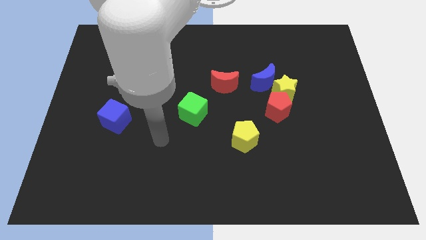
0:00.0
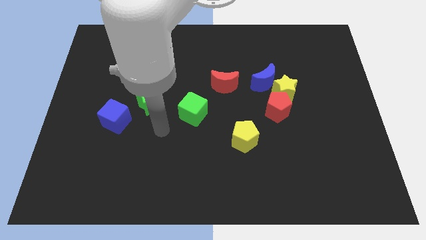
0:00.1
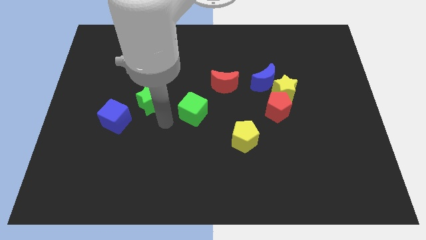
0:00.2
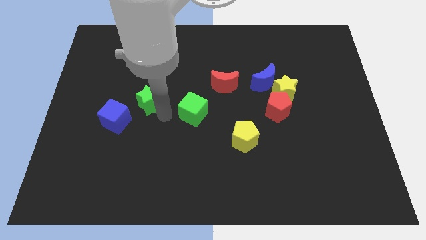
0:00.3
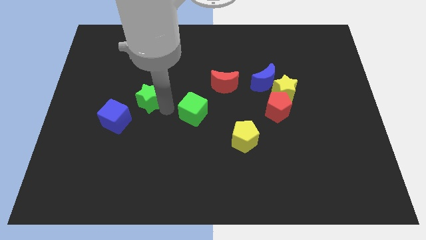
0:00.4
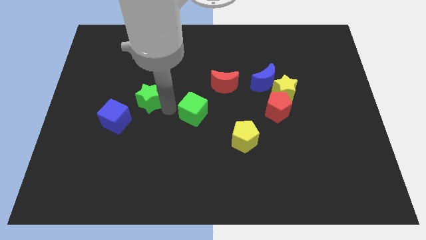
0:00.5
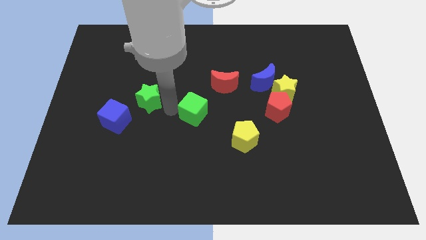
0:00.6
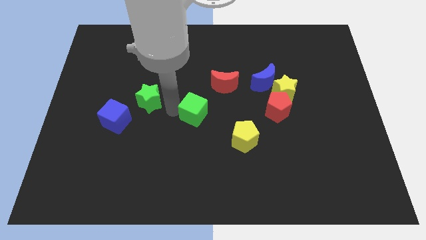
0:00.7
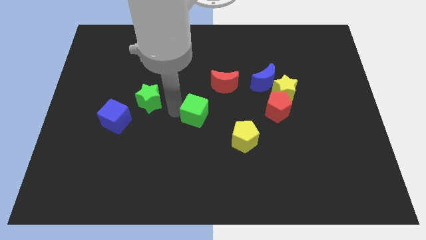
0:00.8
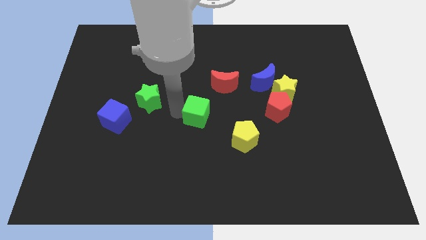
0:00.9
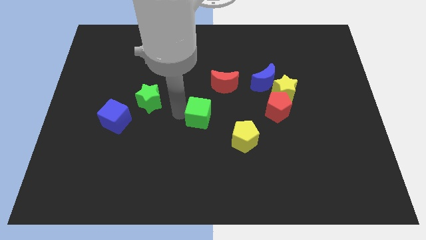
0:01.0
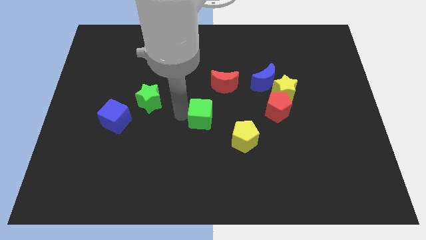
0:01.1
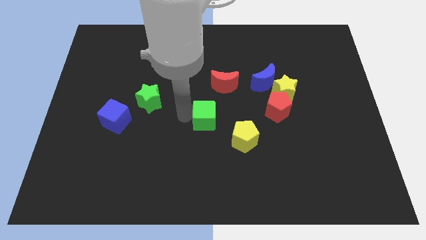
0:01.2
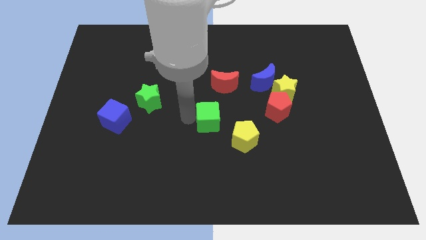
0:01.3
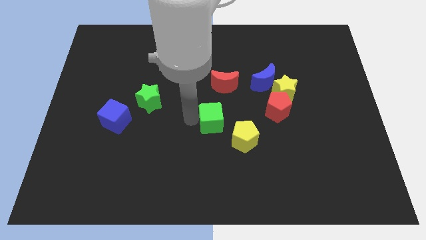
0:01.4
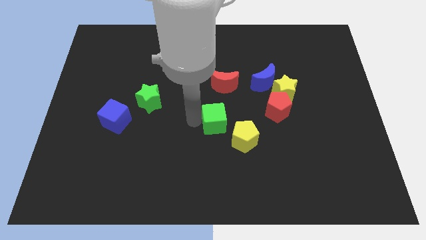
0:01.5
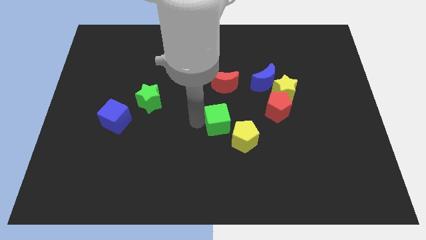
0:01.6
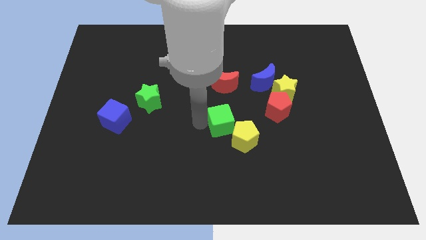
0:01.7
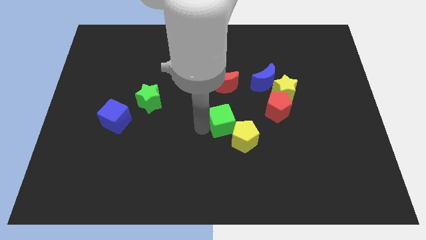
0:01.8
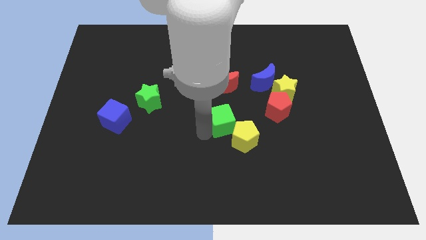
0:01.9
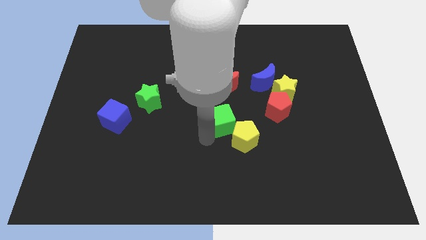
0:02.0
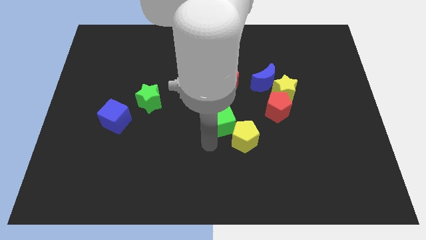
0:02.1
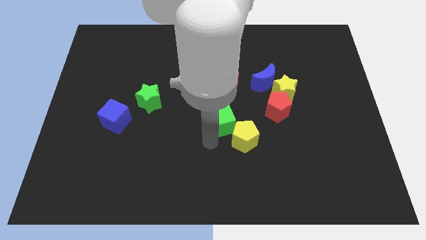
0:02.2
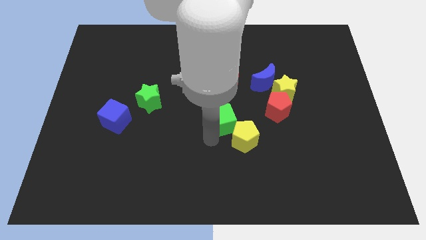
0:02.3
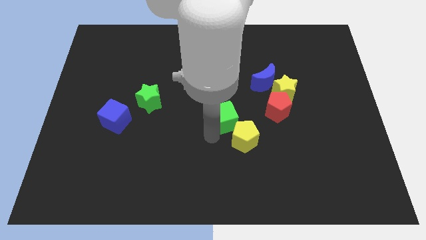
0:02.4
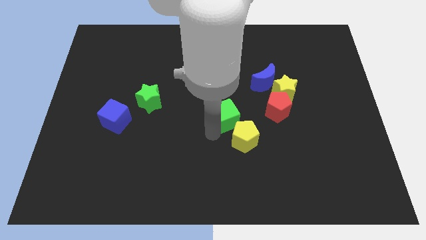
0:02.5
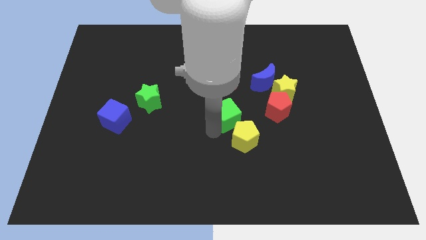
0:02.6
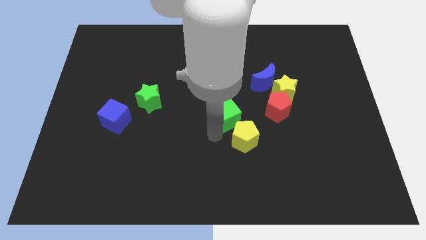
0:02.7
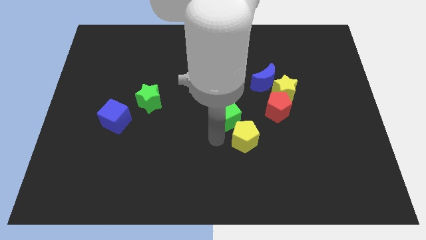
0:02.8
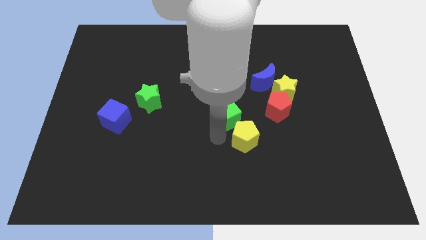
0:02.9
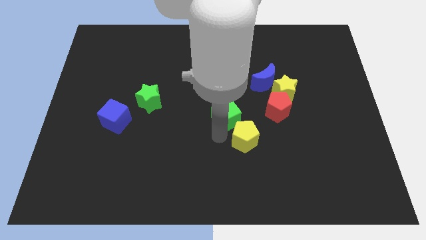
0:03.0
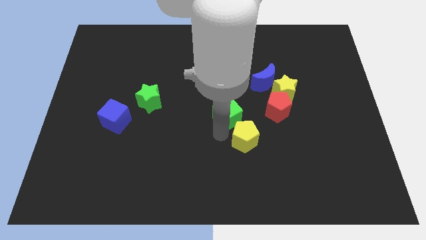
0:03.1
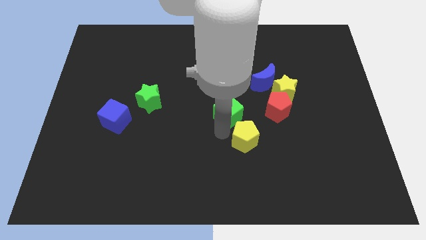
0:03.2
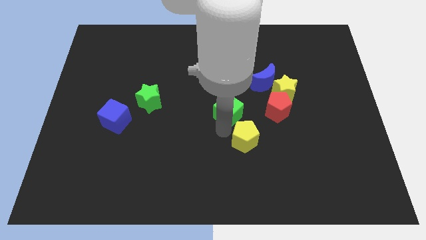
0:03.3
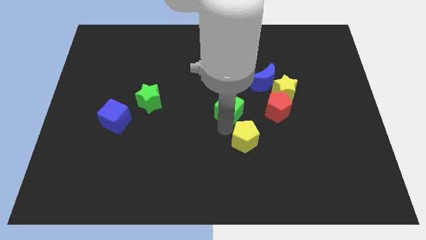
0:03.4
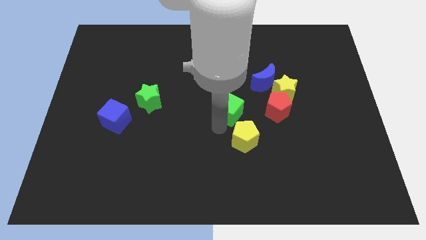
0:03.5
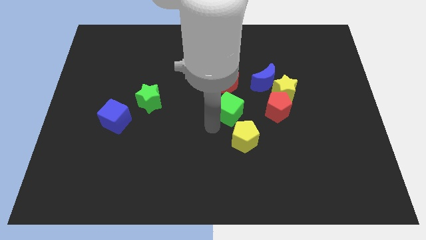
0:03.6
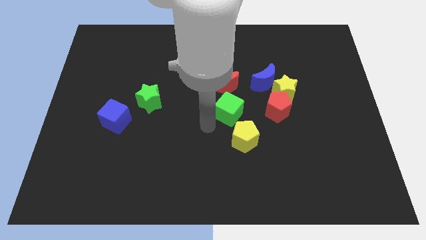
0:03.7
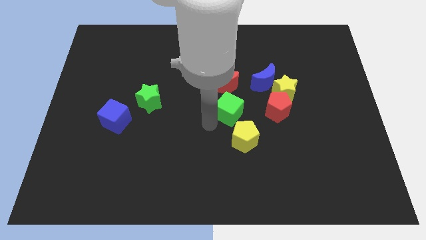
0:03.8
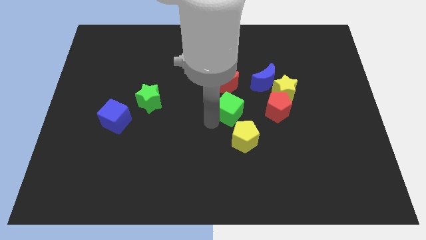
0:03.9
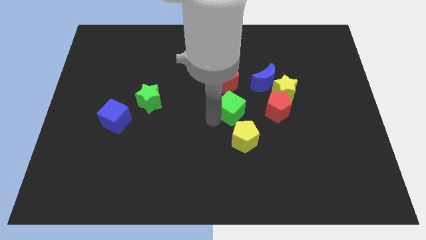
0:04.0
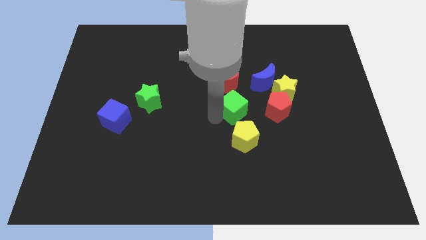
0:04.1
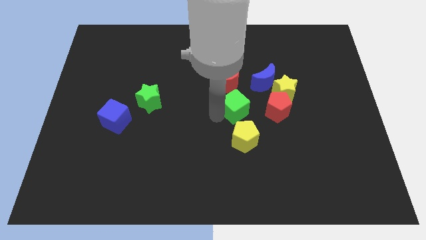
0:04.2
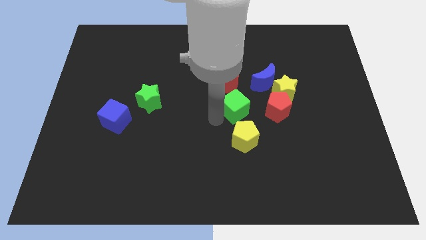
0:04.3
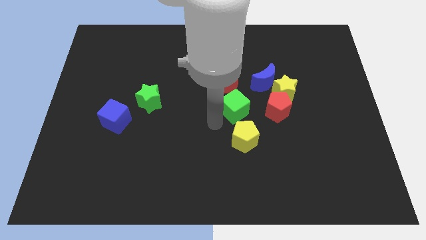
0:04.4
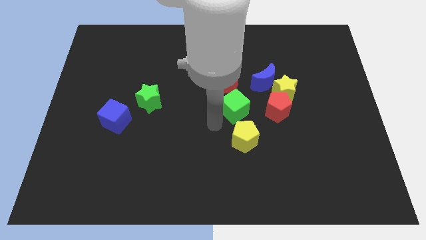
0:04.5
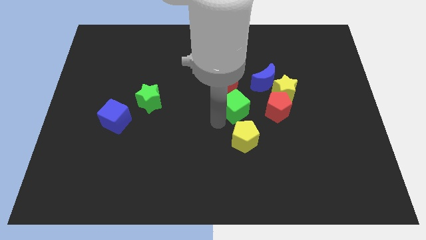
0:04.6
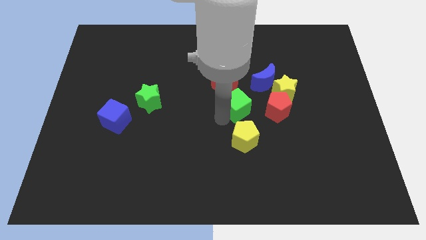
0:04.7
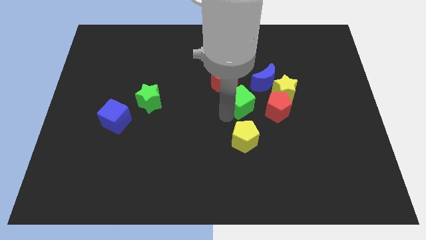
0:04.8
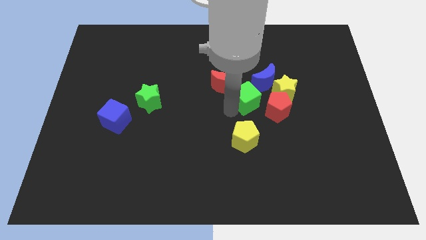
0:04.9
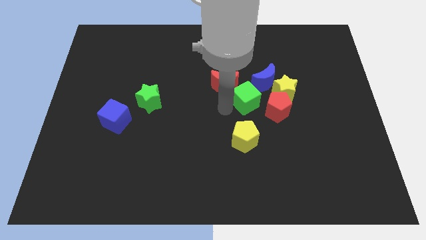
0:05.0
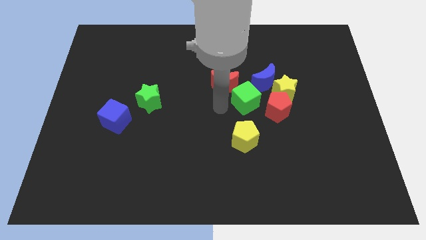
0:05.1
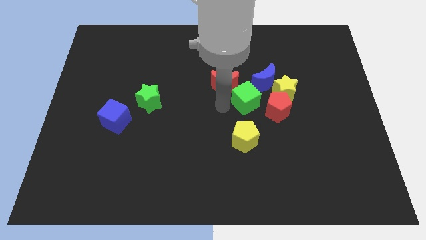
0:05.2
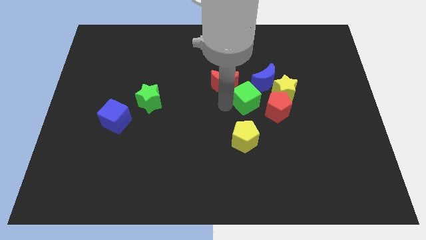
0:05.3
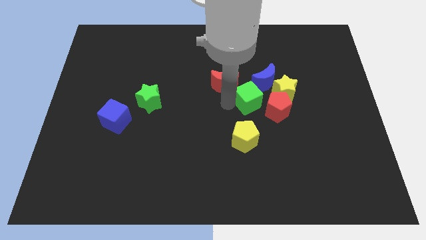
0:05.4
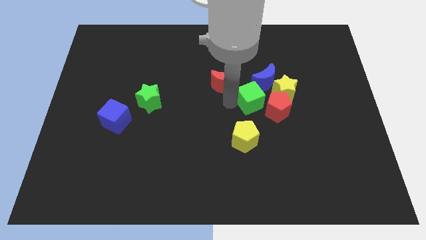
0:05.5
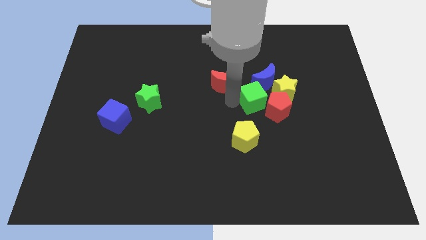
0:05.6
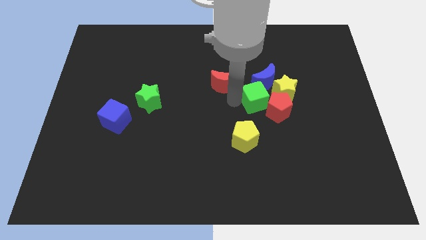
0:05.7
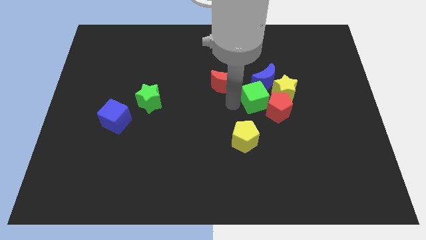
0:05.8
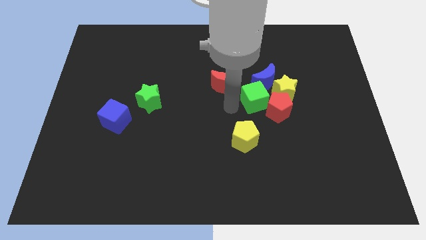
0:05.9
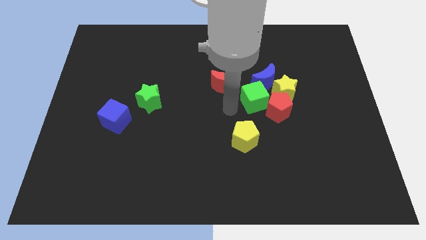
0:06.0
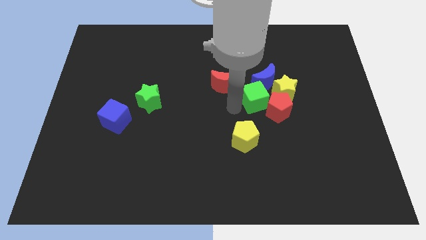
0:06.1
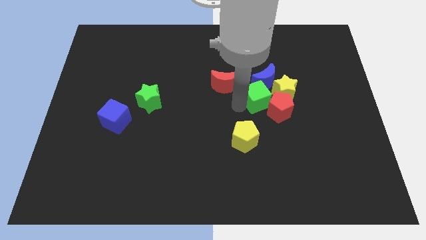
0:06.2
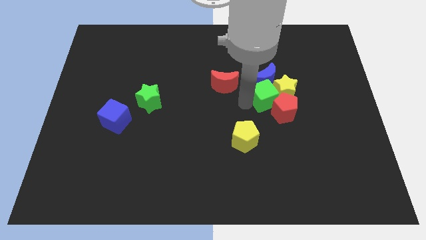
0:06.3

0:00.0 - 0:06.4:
slide the green cube towards the yellow star
